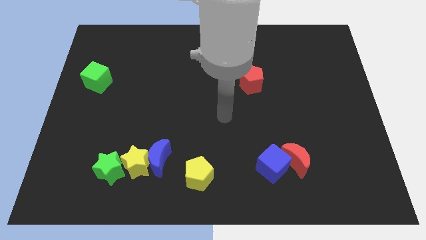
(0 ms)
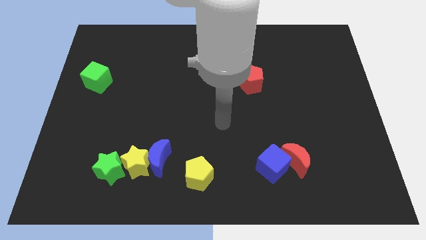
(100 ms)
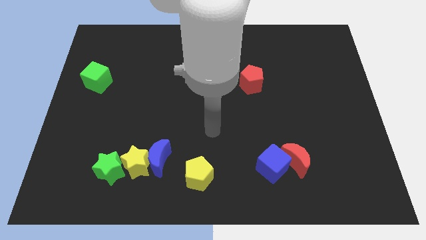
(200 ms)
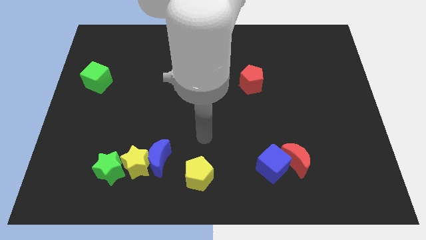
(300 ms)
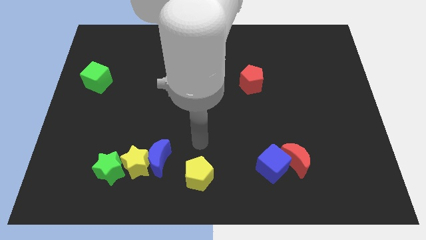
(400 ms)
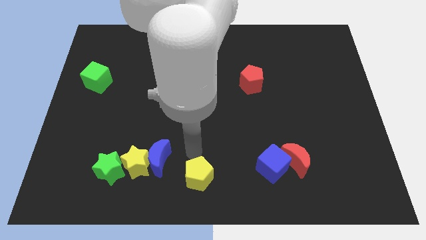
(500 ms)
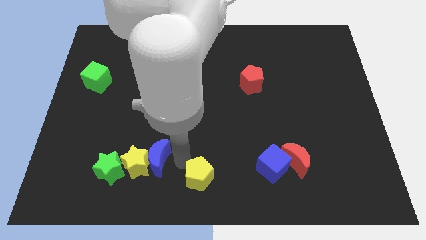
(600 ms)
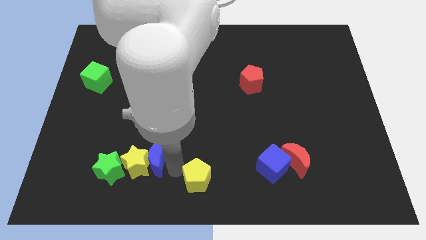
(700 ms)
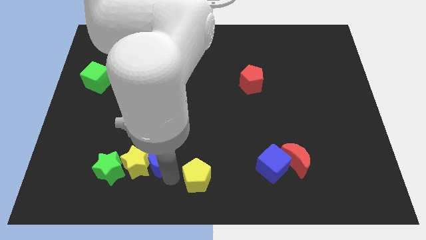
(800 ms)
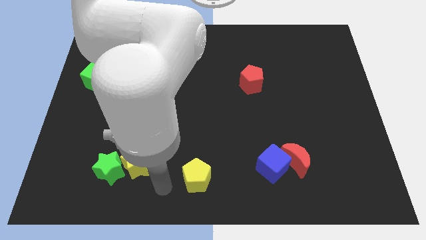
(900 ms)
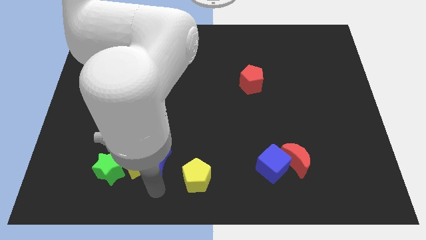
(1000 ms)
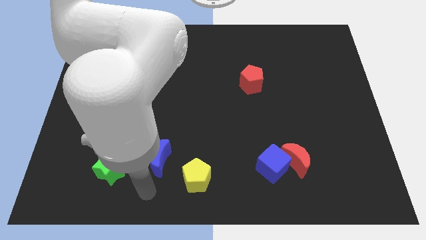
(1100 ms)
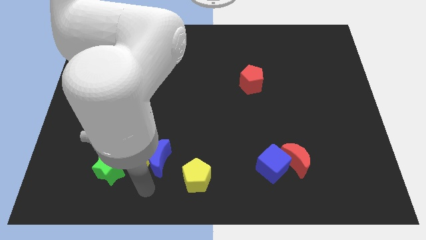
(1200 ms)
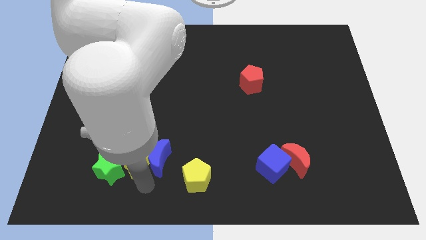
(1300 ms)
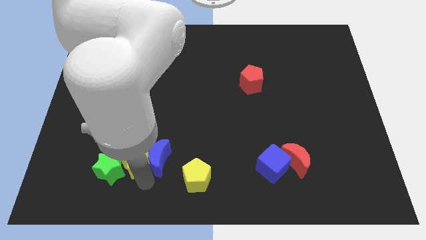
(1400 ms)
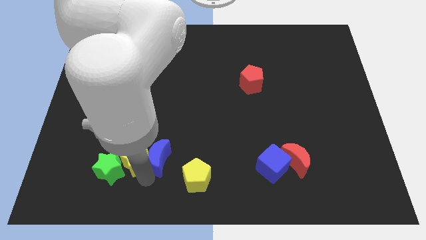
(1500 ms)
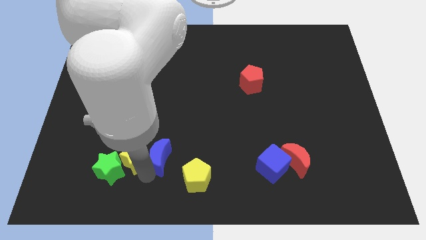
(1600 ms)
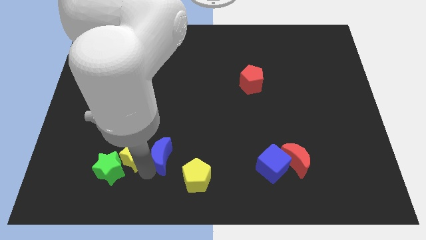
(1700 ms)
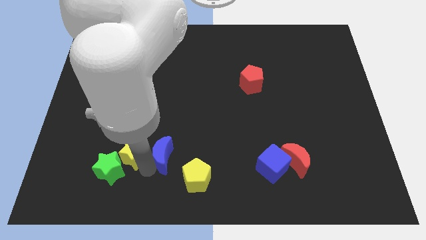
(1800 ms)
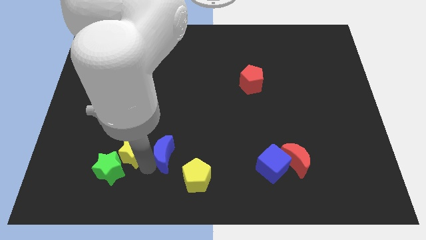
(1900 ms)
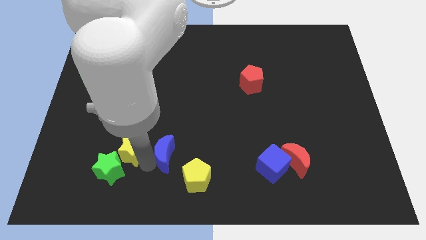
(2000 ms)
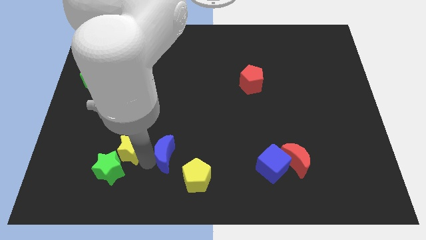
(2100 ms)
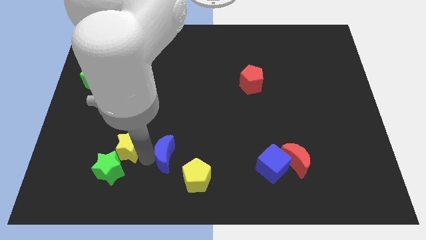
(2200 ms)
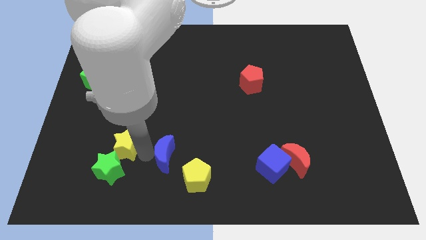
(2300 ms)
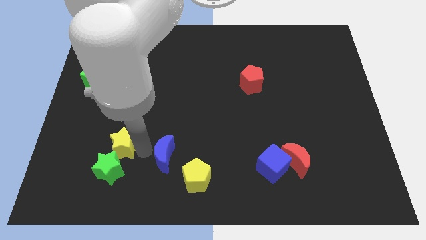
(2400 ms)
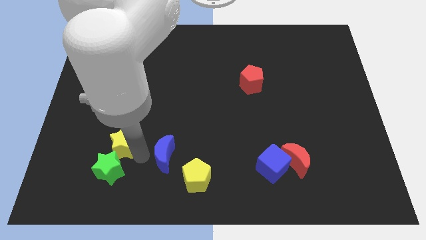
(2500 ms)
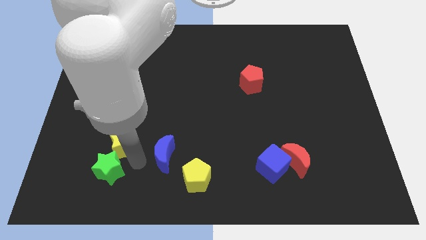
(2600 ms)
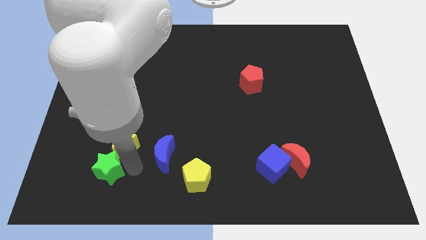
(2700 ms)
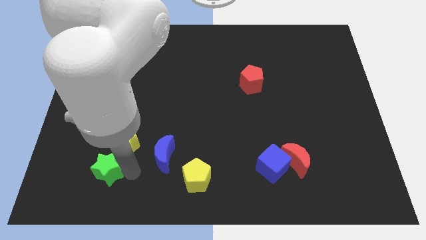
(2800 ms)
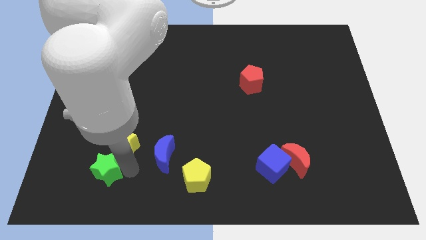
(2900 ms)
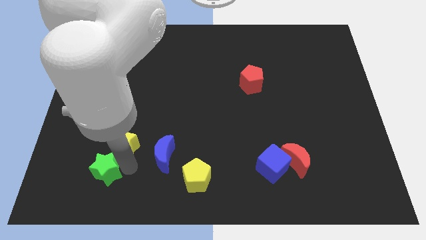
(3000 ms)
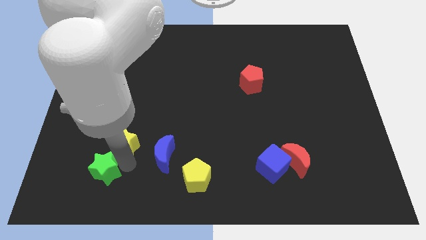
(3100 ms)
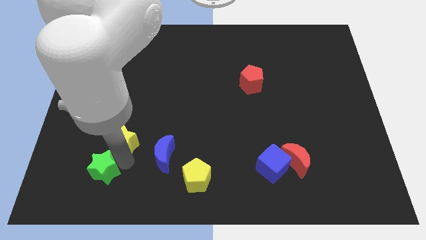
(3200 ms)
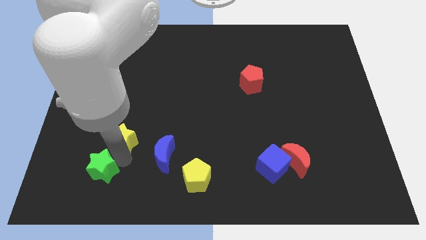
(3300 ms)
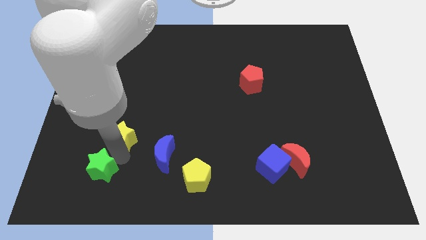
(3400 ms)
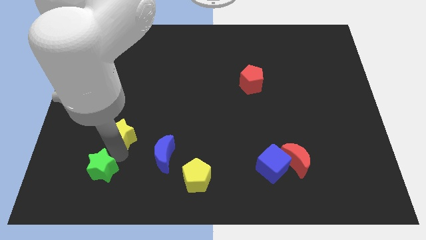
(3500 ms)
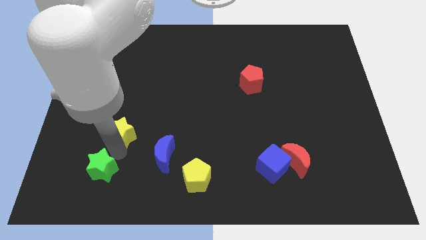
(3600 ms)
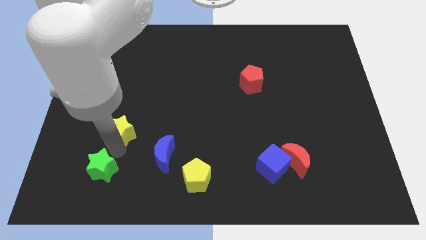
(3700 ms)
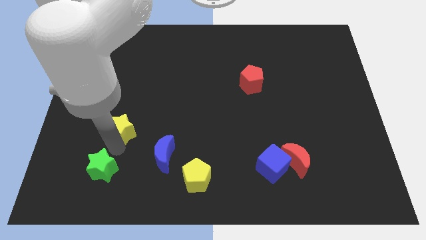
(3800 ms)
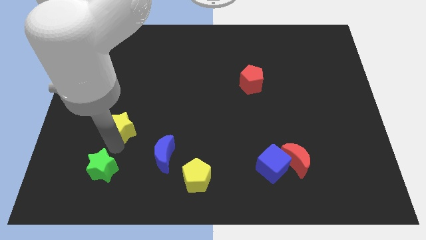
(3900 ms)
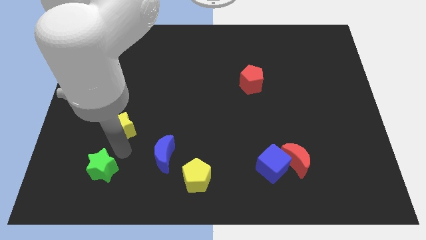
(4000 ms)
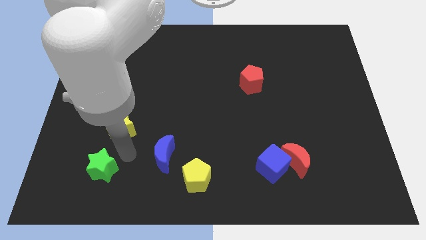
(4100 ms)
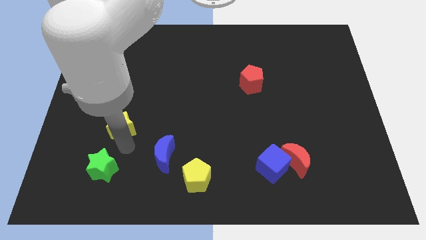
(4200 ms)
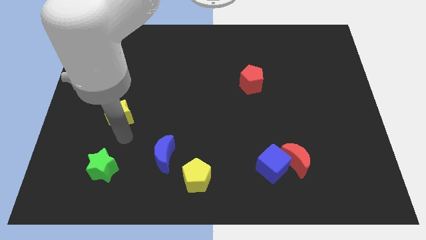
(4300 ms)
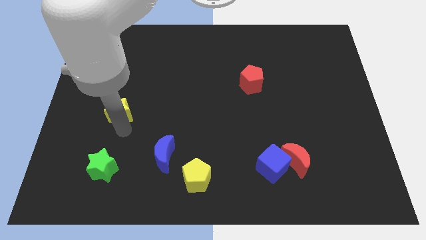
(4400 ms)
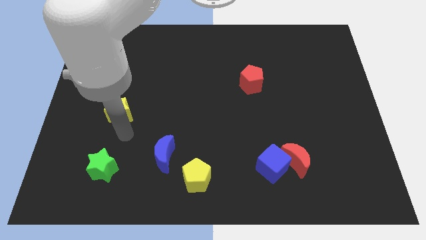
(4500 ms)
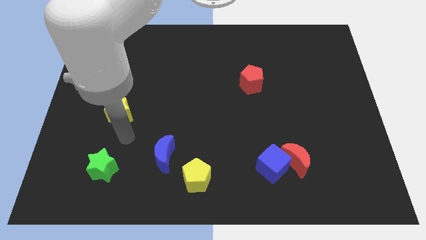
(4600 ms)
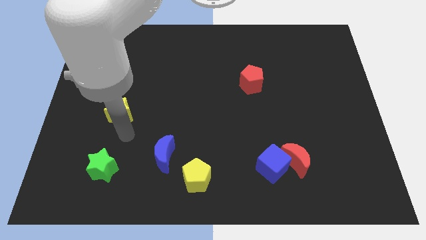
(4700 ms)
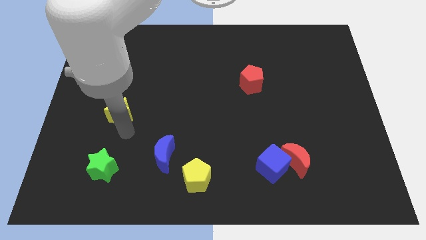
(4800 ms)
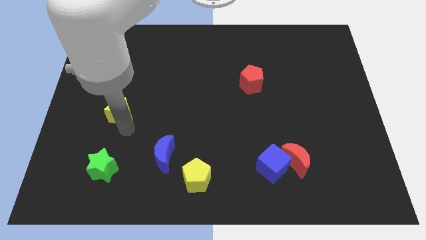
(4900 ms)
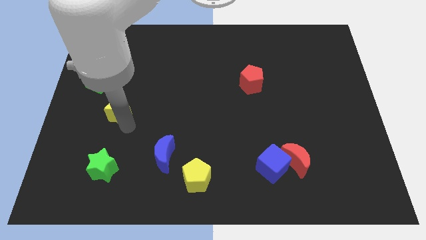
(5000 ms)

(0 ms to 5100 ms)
move the yellow star to the bottom right of the green cube

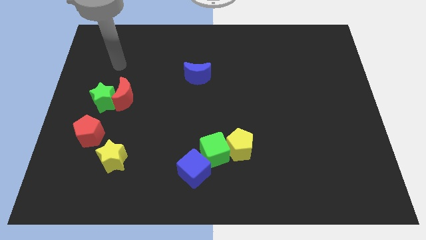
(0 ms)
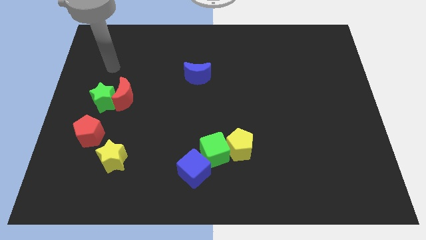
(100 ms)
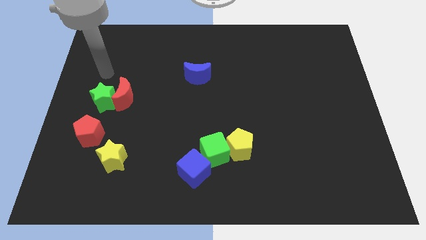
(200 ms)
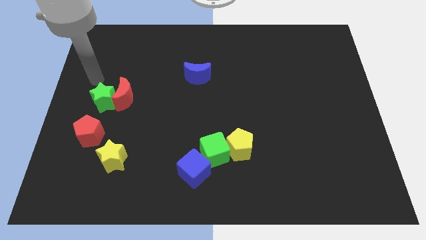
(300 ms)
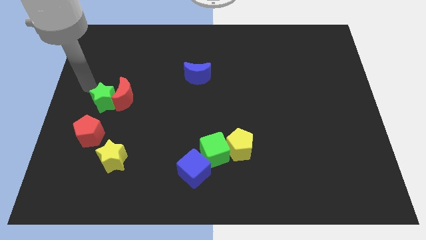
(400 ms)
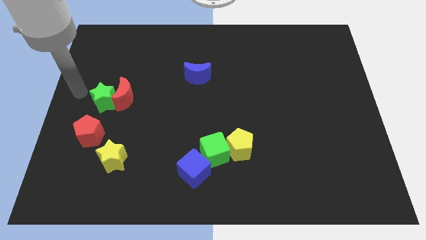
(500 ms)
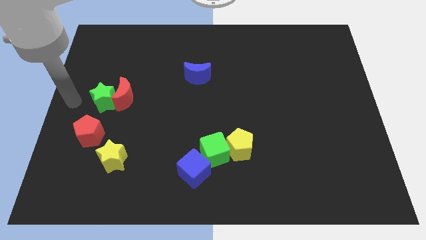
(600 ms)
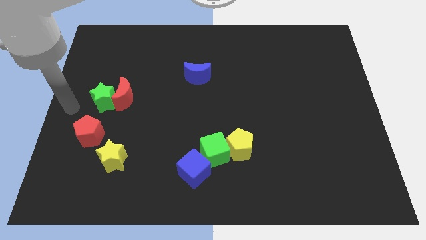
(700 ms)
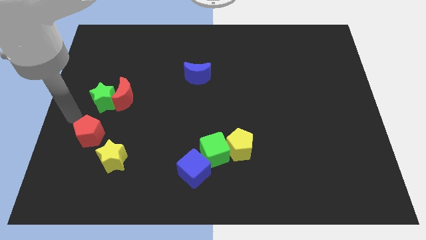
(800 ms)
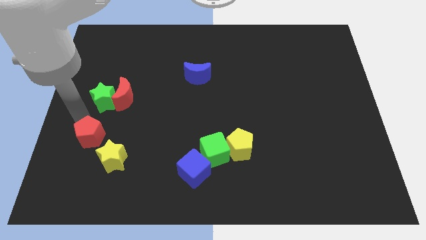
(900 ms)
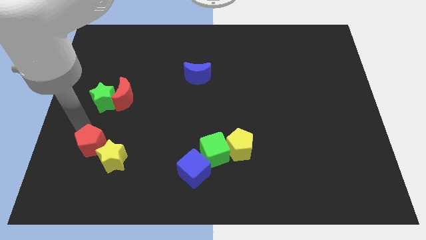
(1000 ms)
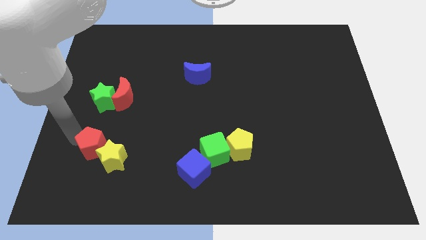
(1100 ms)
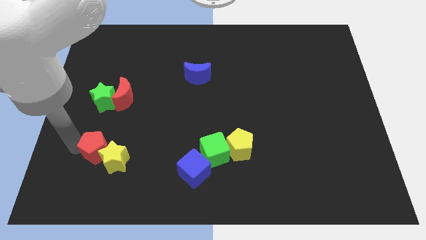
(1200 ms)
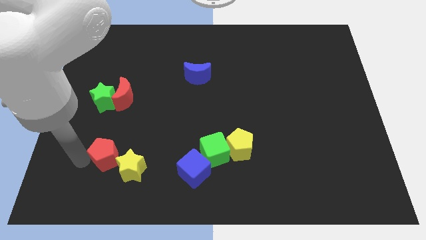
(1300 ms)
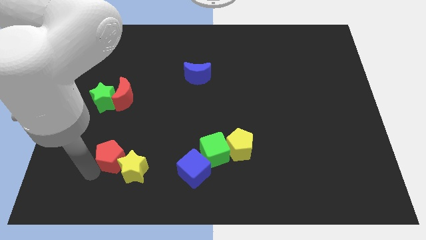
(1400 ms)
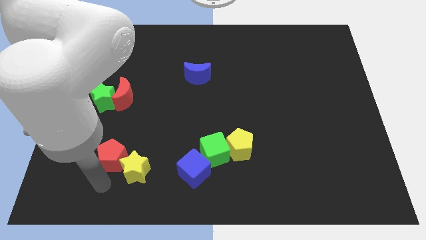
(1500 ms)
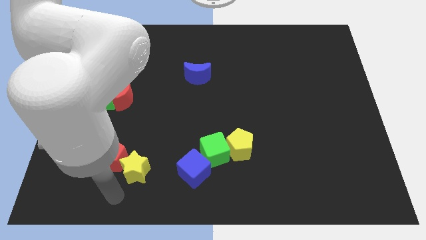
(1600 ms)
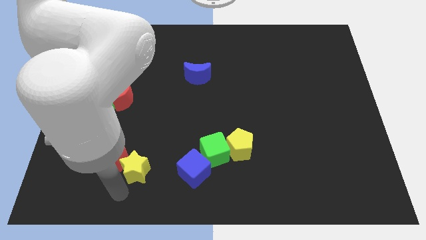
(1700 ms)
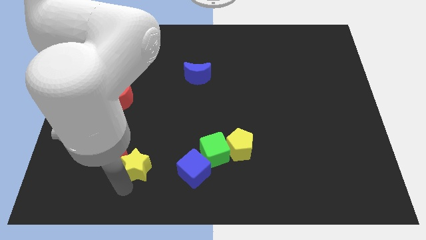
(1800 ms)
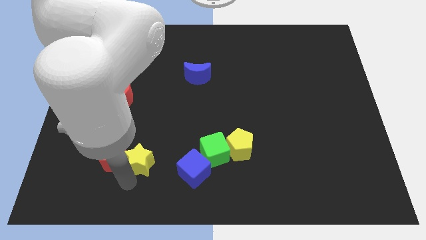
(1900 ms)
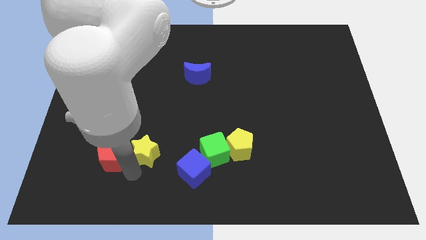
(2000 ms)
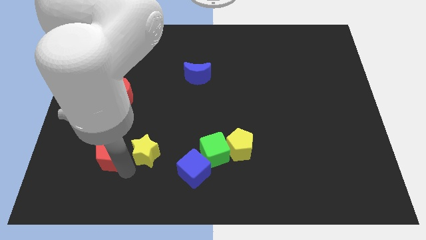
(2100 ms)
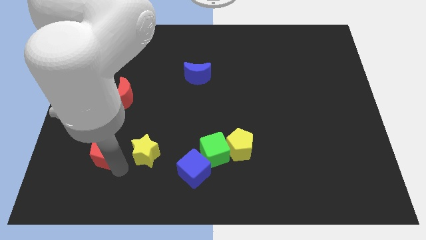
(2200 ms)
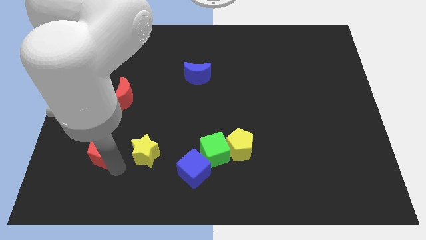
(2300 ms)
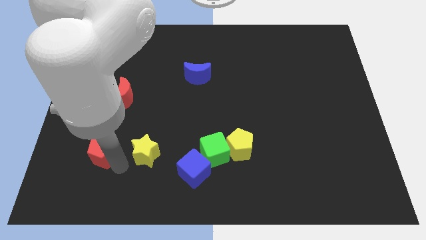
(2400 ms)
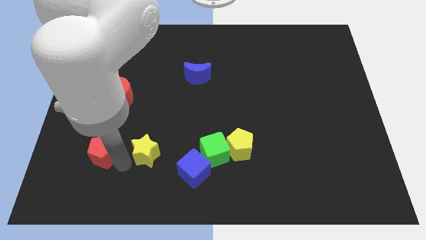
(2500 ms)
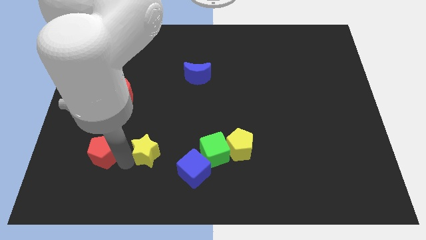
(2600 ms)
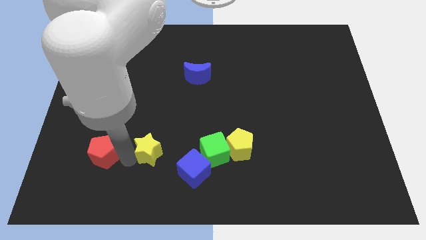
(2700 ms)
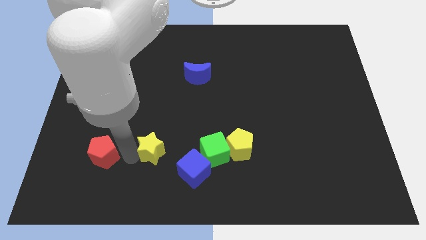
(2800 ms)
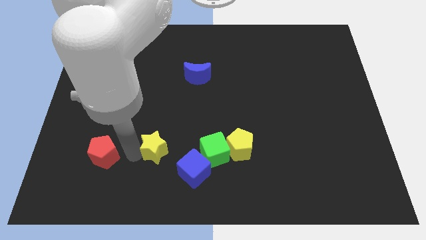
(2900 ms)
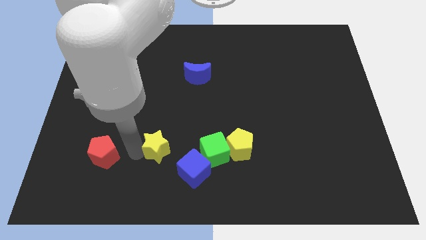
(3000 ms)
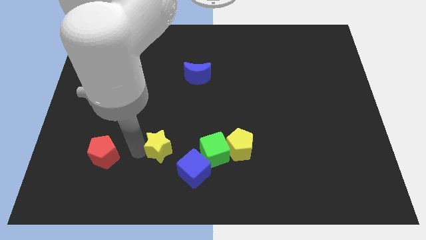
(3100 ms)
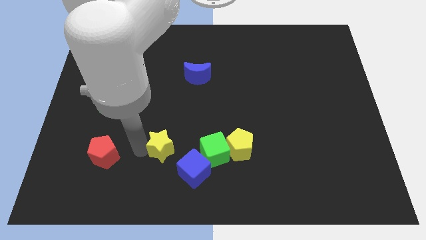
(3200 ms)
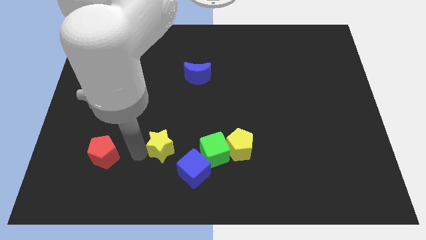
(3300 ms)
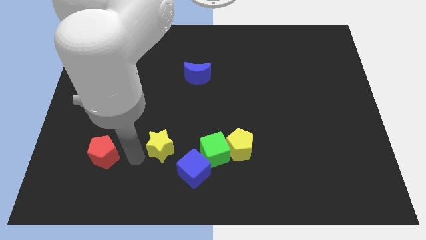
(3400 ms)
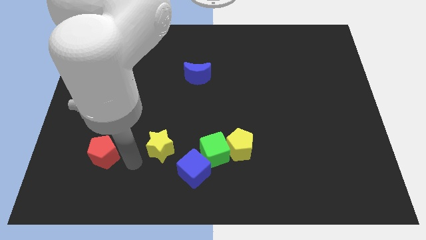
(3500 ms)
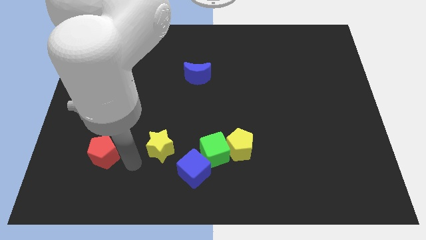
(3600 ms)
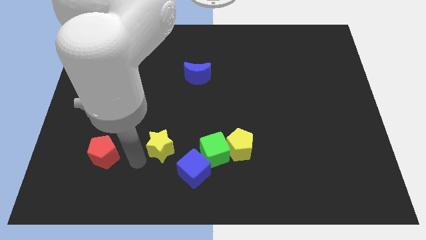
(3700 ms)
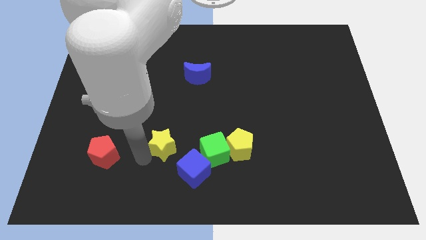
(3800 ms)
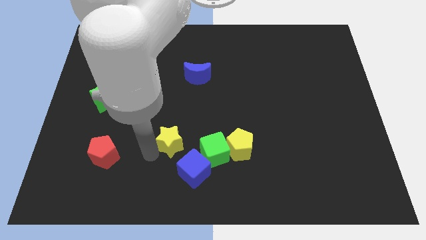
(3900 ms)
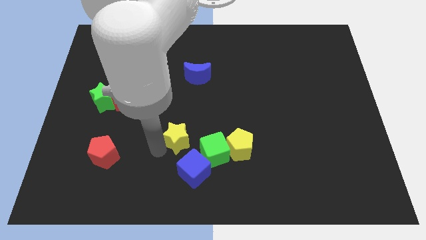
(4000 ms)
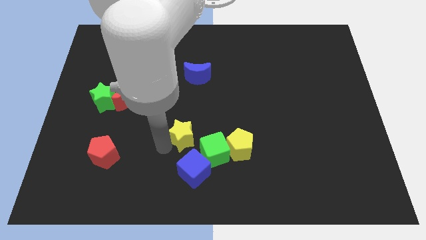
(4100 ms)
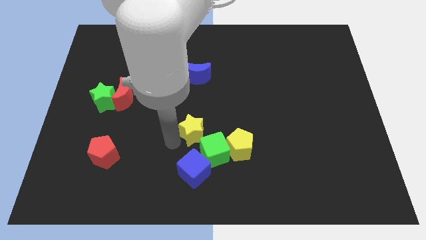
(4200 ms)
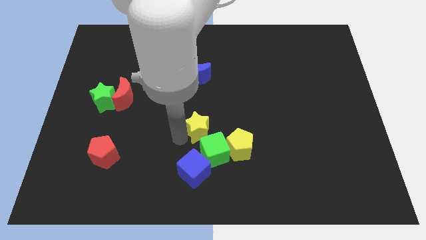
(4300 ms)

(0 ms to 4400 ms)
push the yellow star to the top left side of the yellow pentagon
